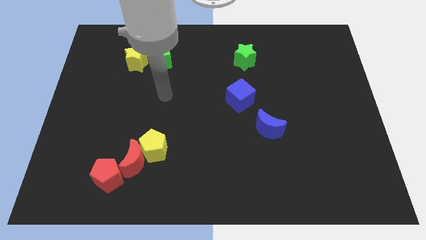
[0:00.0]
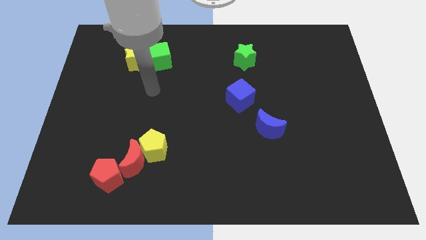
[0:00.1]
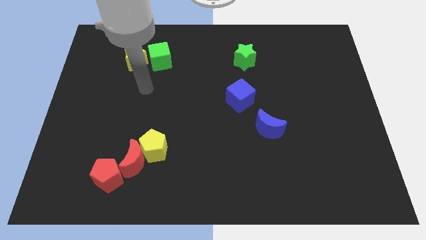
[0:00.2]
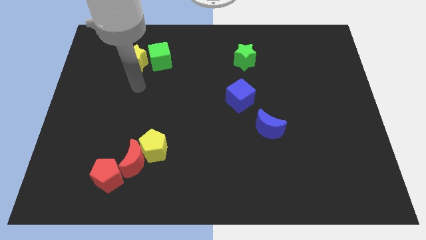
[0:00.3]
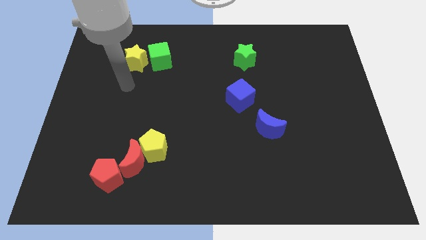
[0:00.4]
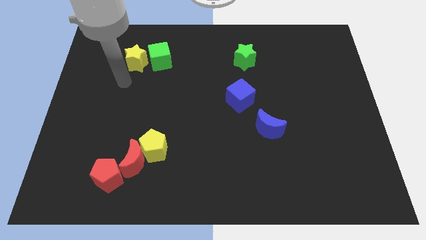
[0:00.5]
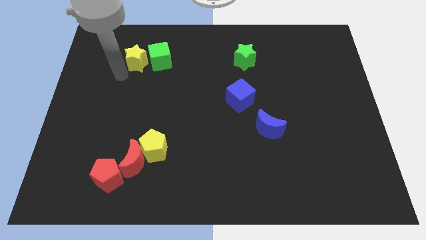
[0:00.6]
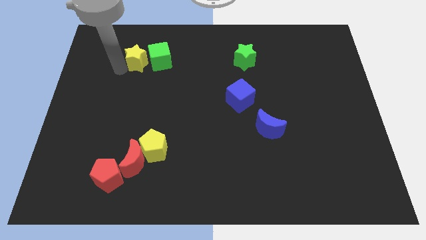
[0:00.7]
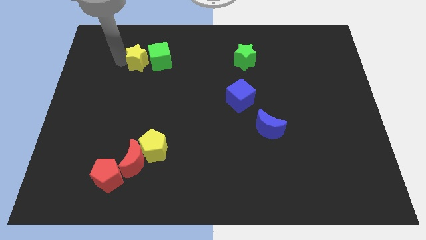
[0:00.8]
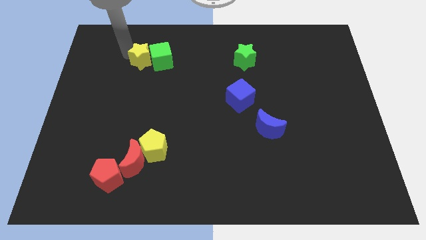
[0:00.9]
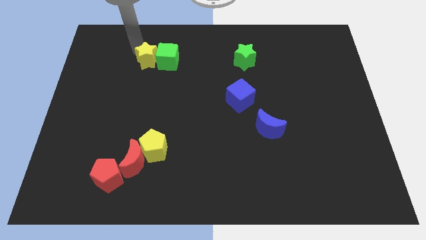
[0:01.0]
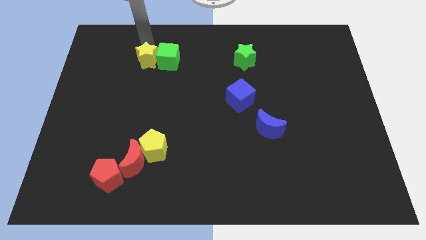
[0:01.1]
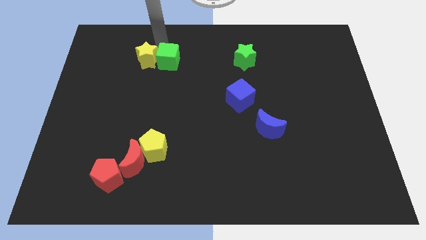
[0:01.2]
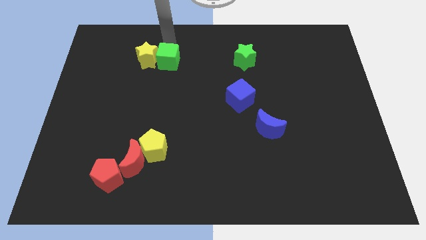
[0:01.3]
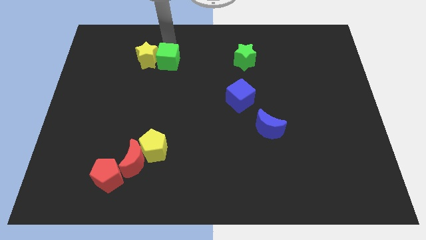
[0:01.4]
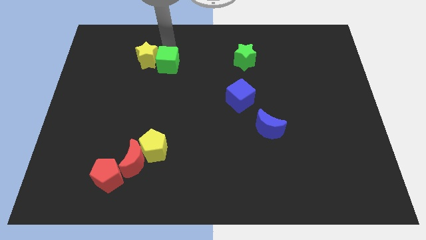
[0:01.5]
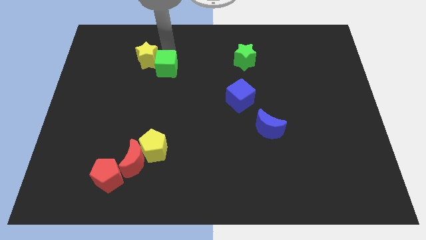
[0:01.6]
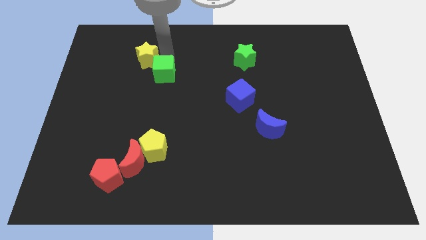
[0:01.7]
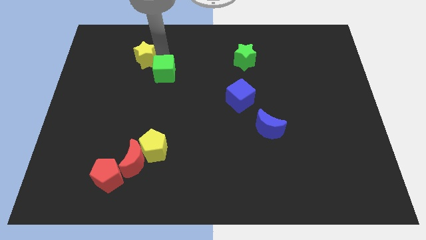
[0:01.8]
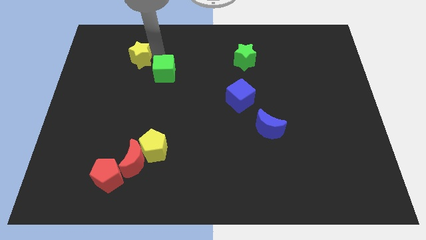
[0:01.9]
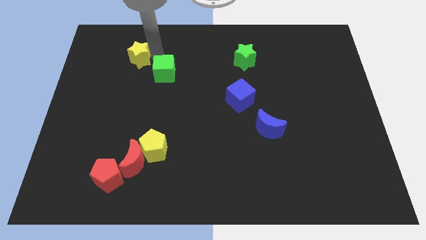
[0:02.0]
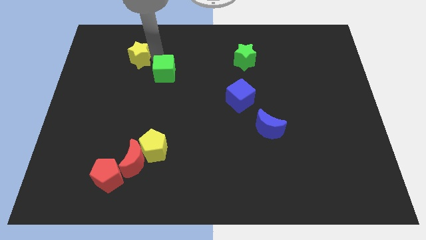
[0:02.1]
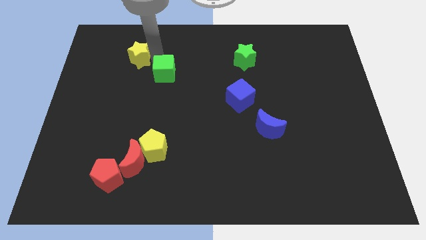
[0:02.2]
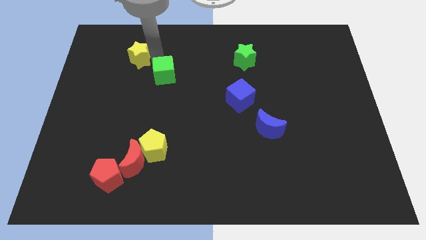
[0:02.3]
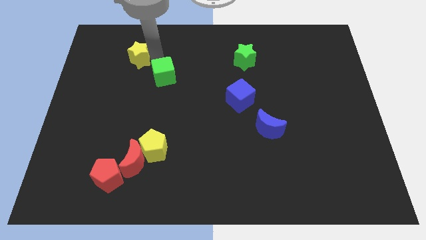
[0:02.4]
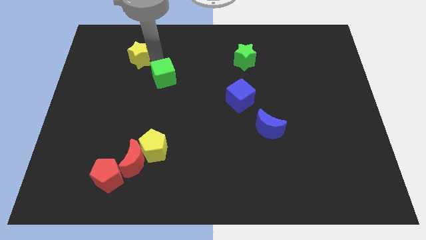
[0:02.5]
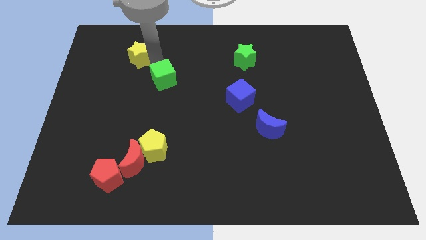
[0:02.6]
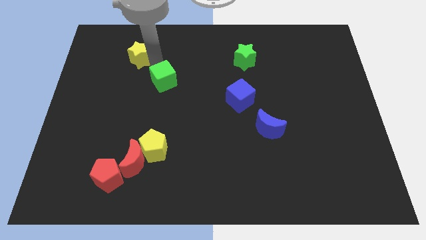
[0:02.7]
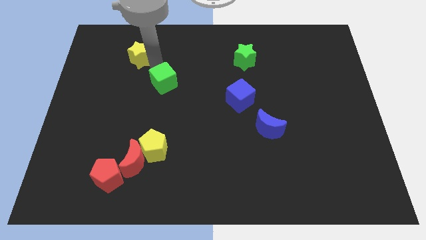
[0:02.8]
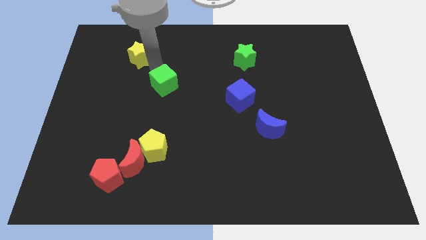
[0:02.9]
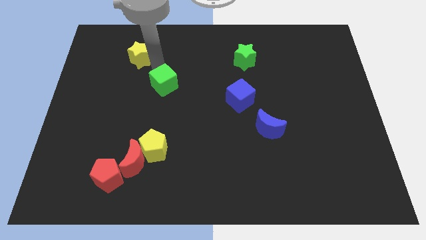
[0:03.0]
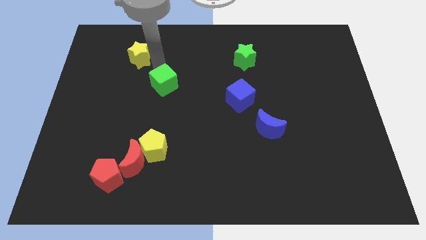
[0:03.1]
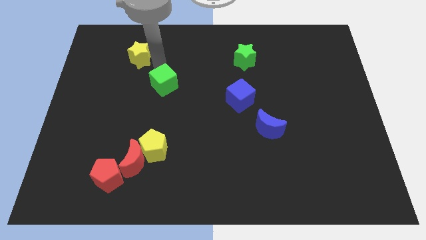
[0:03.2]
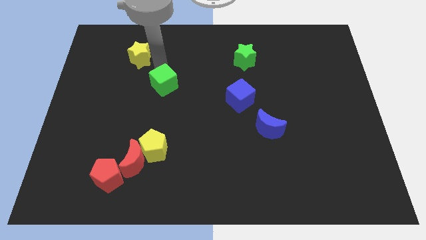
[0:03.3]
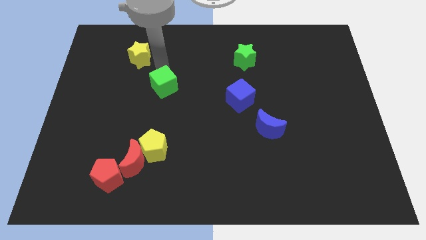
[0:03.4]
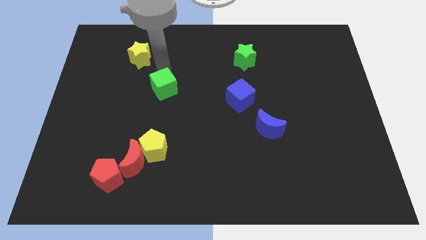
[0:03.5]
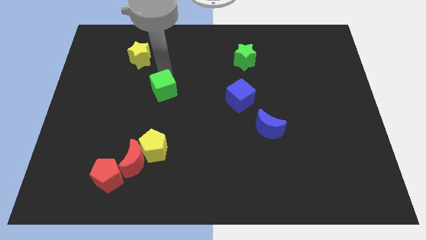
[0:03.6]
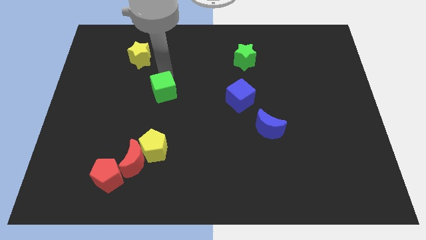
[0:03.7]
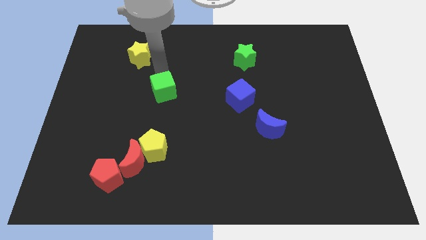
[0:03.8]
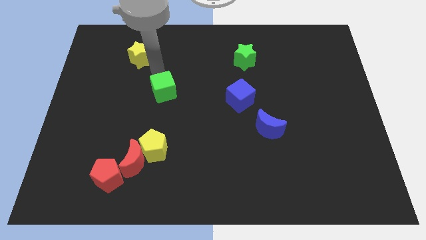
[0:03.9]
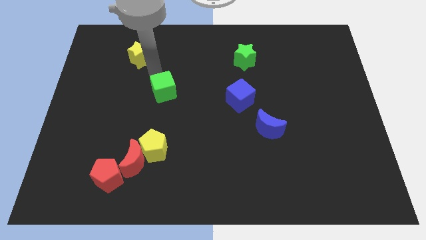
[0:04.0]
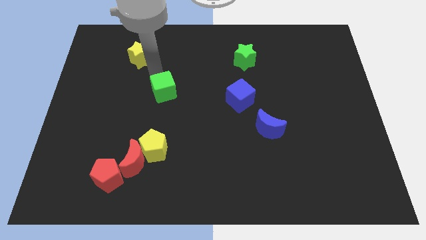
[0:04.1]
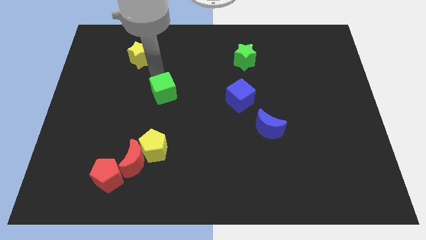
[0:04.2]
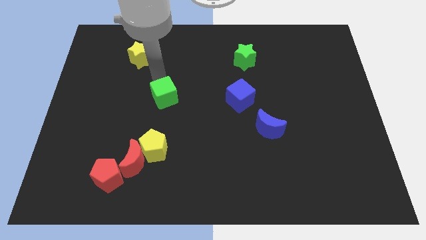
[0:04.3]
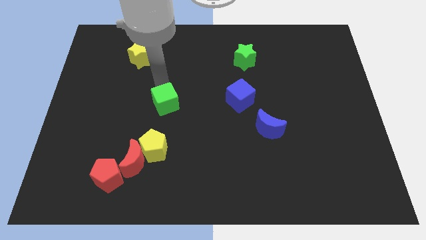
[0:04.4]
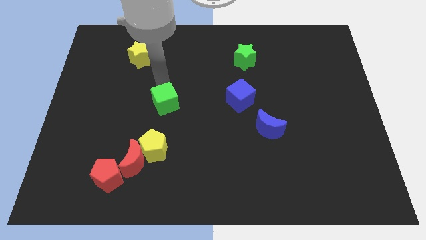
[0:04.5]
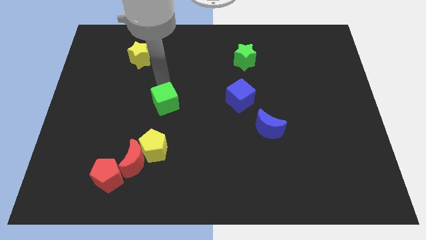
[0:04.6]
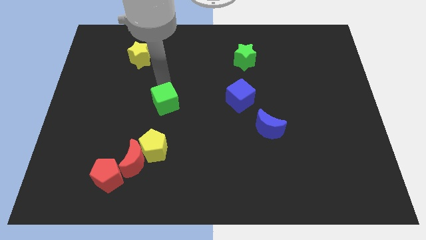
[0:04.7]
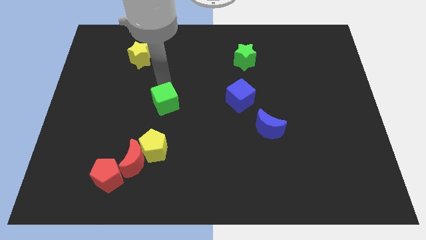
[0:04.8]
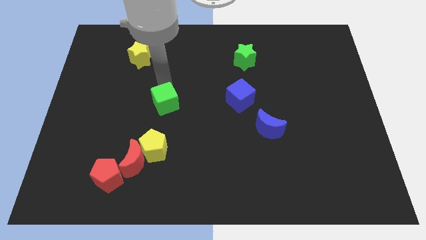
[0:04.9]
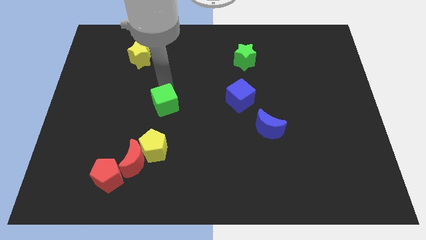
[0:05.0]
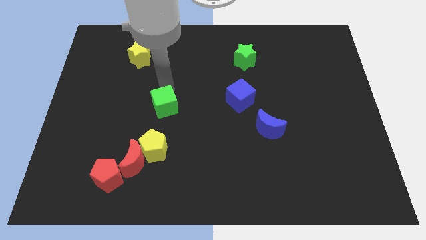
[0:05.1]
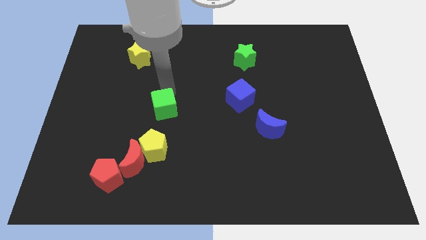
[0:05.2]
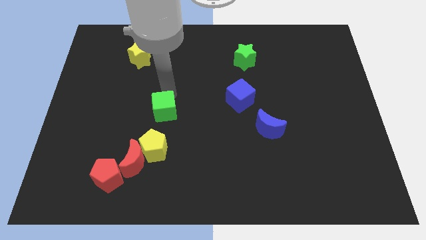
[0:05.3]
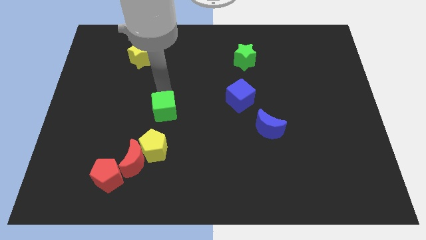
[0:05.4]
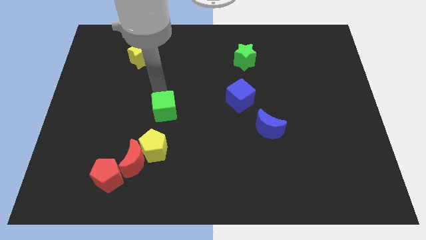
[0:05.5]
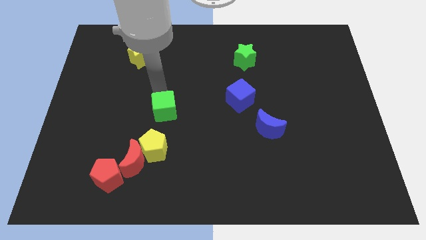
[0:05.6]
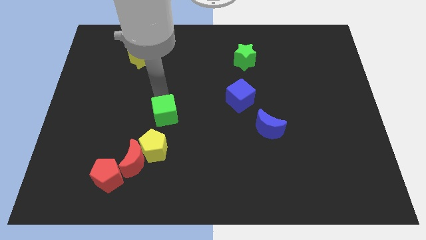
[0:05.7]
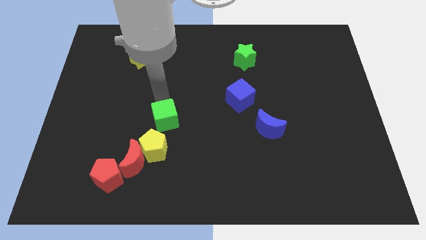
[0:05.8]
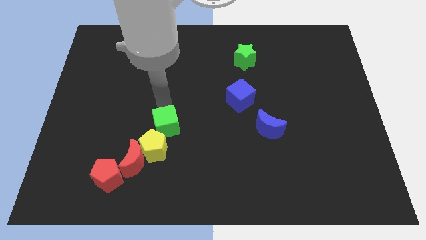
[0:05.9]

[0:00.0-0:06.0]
slide the green cube diagonally up and to the right of the red moon

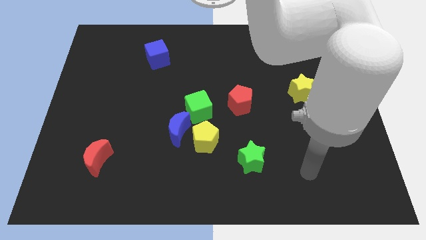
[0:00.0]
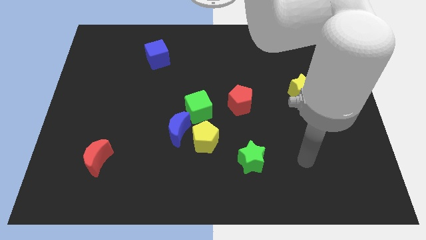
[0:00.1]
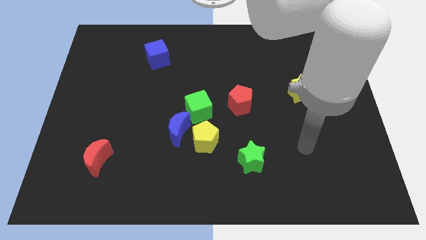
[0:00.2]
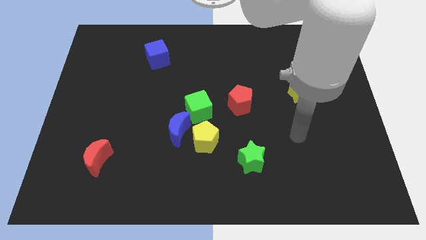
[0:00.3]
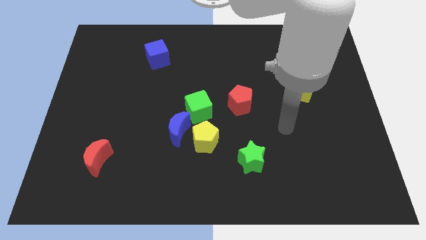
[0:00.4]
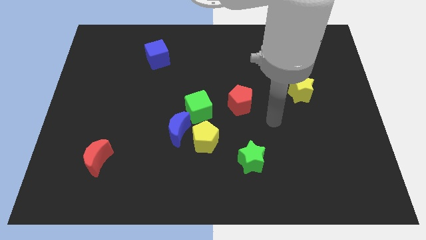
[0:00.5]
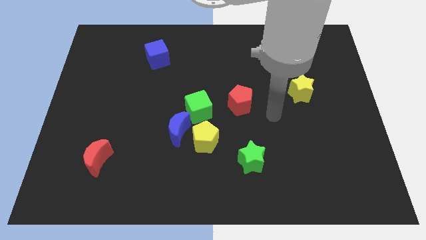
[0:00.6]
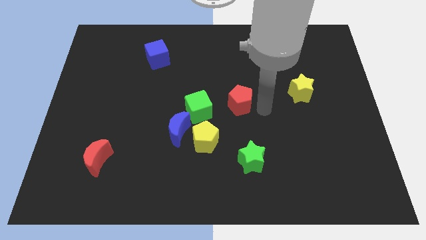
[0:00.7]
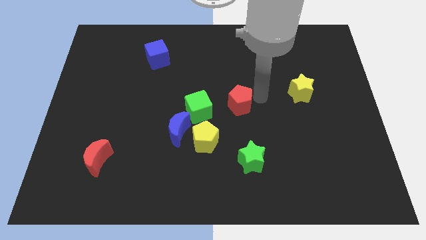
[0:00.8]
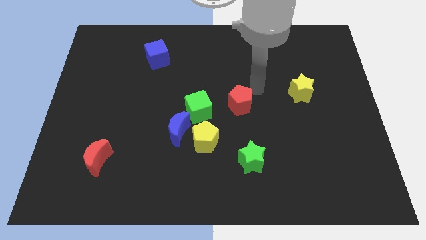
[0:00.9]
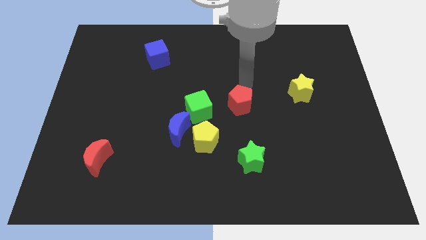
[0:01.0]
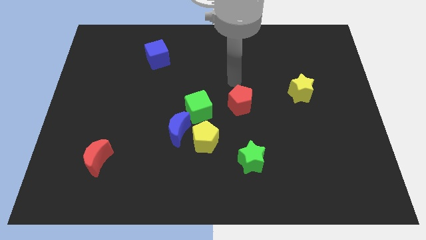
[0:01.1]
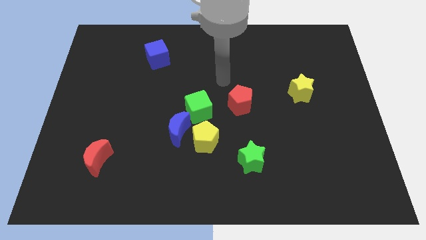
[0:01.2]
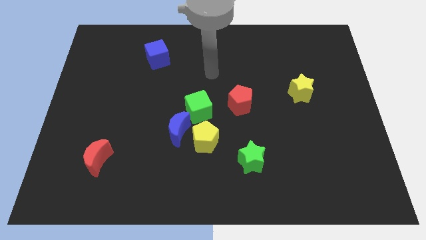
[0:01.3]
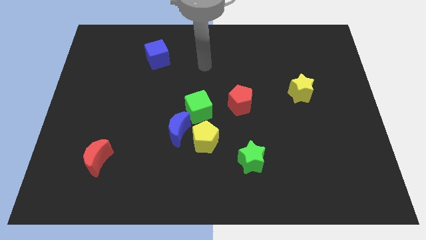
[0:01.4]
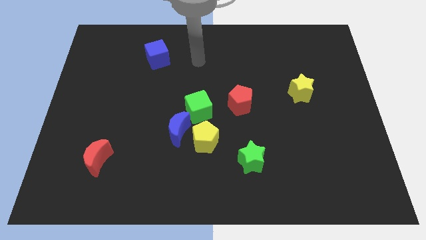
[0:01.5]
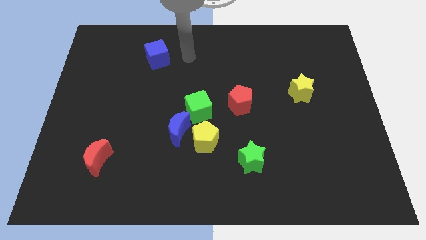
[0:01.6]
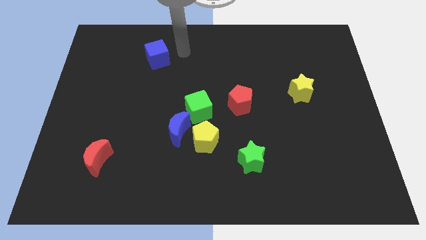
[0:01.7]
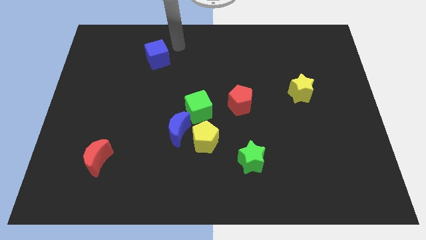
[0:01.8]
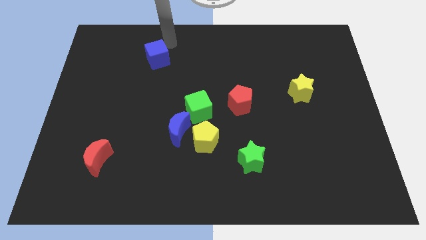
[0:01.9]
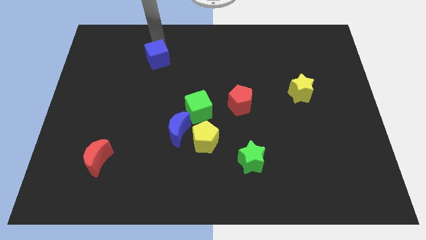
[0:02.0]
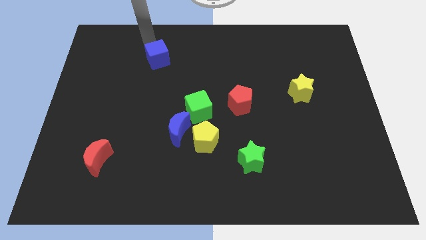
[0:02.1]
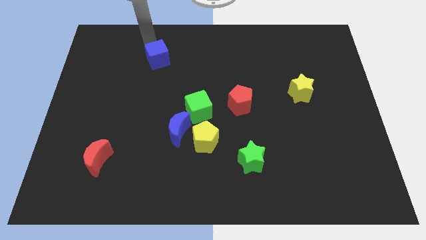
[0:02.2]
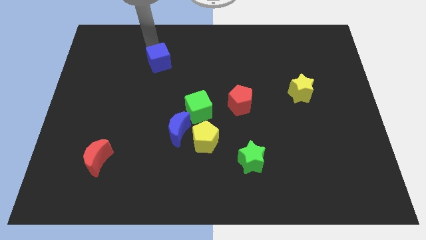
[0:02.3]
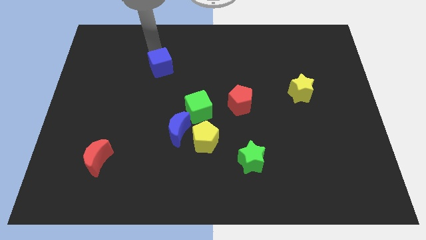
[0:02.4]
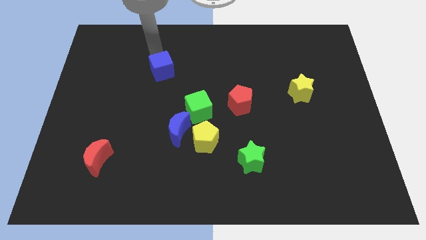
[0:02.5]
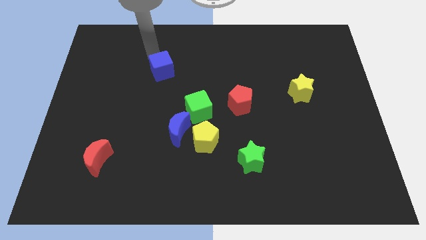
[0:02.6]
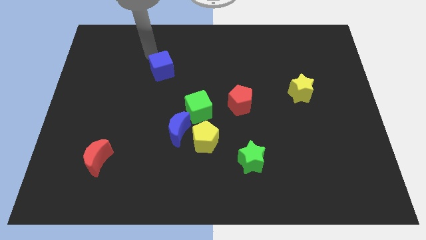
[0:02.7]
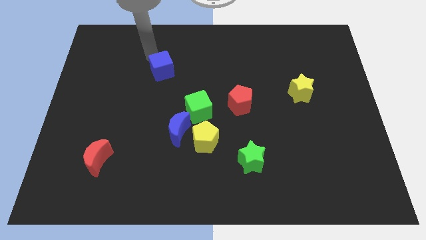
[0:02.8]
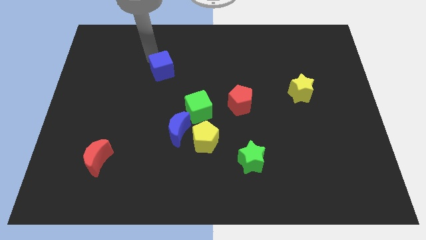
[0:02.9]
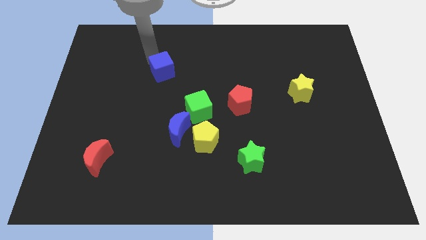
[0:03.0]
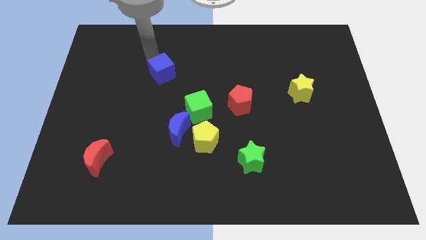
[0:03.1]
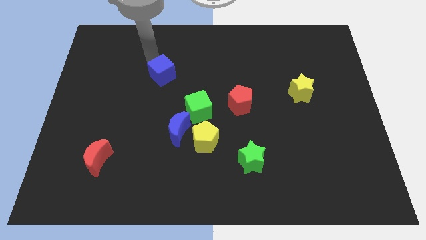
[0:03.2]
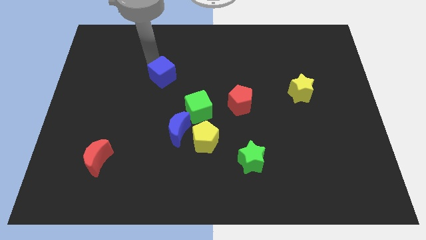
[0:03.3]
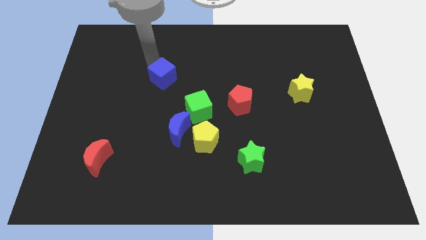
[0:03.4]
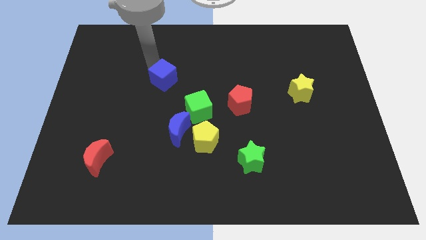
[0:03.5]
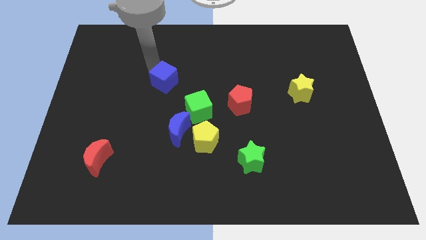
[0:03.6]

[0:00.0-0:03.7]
put the blue cube to the top left side of the green cube
